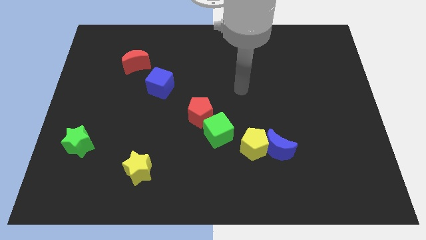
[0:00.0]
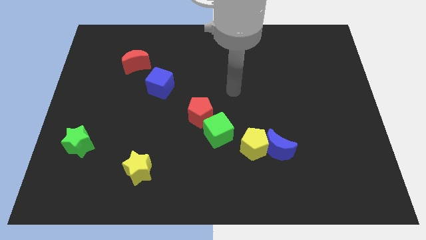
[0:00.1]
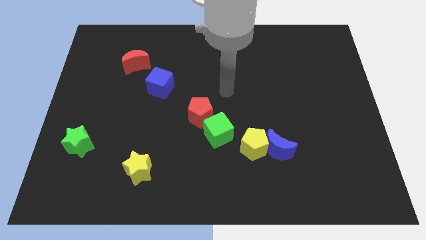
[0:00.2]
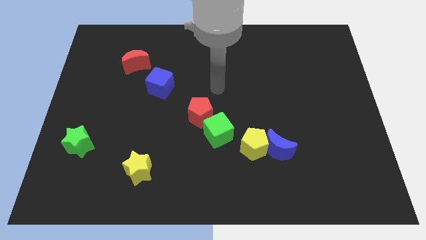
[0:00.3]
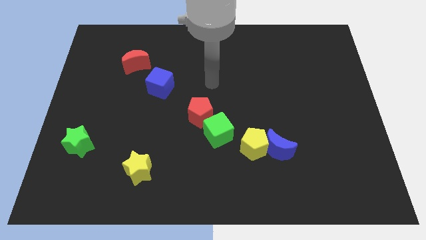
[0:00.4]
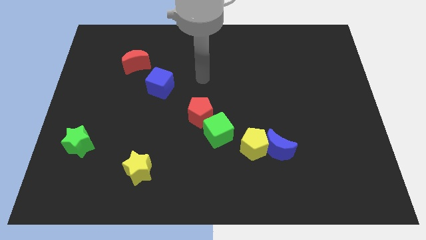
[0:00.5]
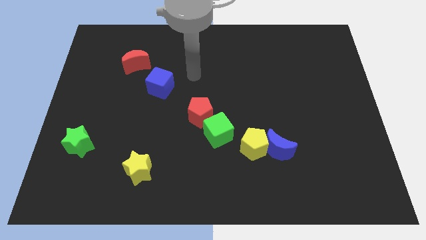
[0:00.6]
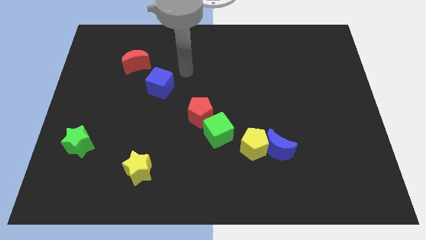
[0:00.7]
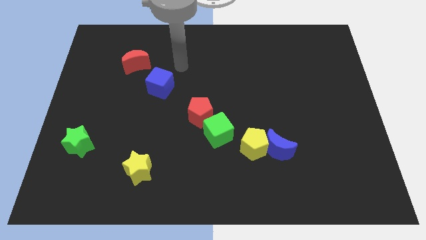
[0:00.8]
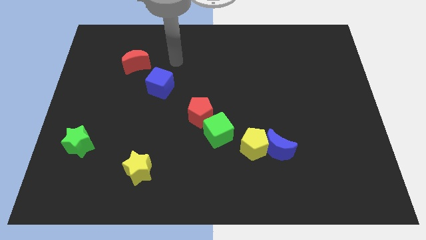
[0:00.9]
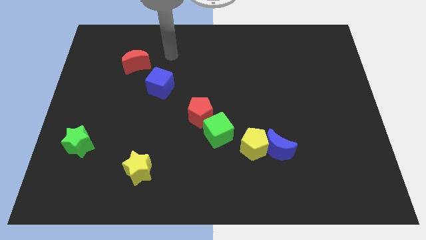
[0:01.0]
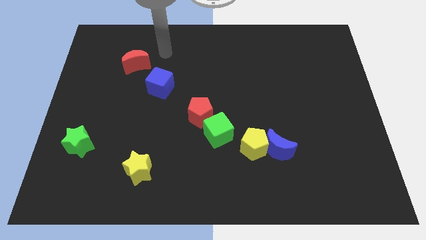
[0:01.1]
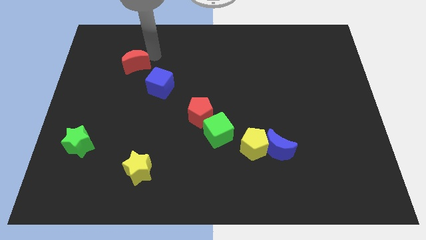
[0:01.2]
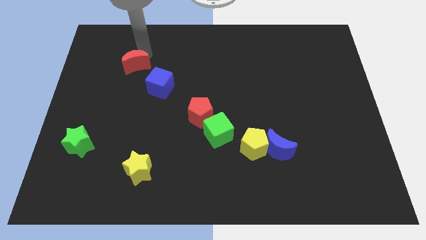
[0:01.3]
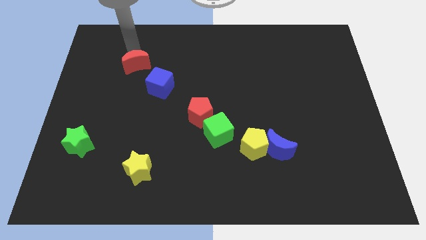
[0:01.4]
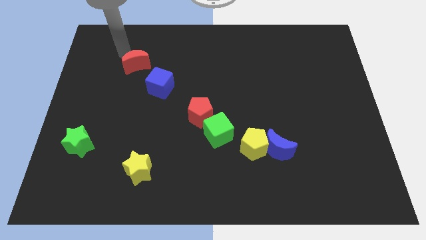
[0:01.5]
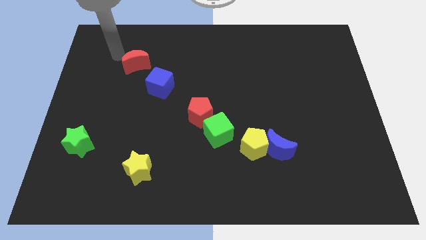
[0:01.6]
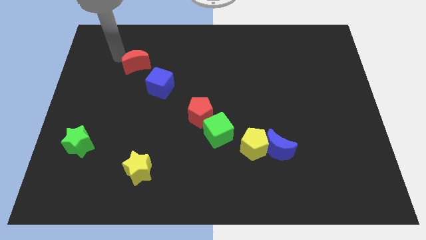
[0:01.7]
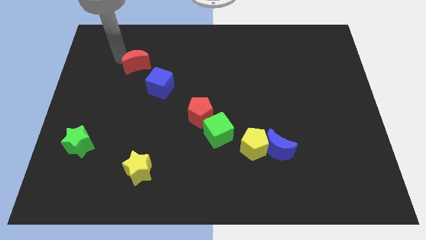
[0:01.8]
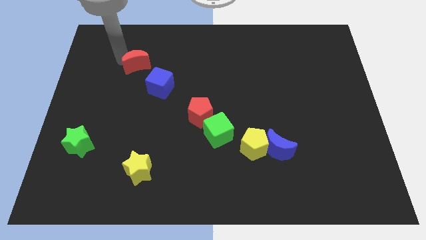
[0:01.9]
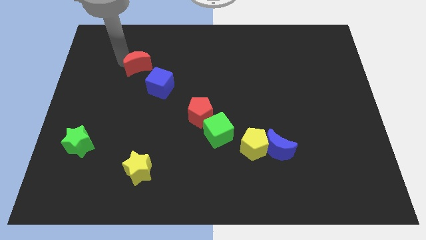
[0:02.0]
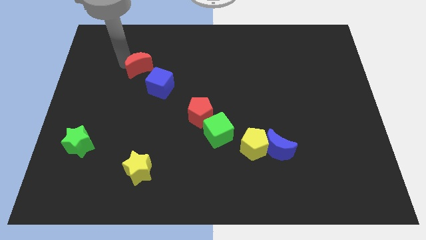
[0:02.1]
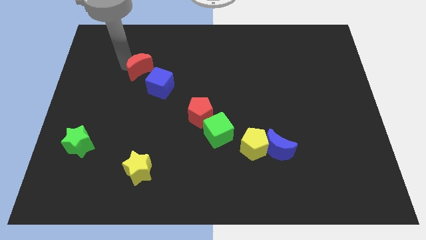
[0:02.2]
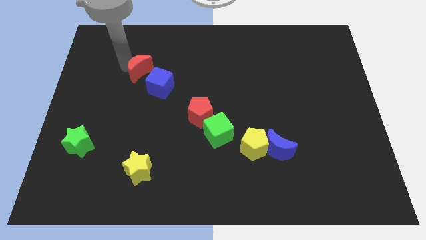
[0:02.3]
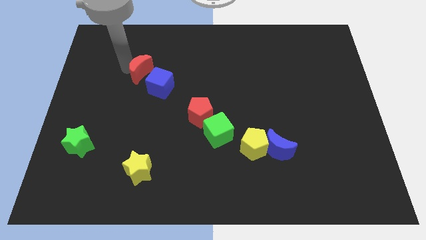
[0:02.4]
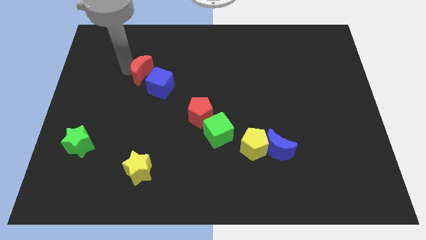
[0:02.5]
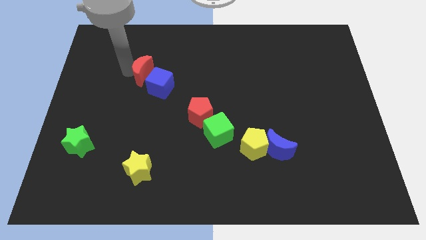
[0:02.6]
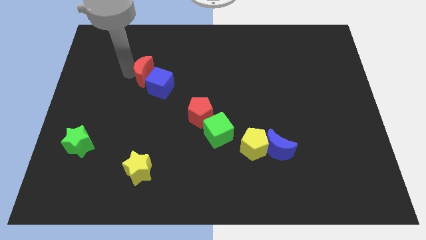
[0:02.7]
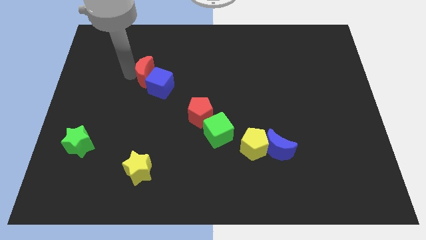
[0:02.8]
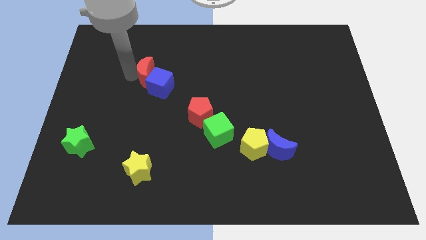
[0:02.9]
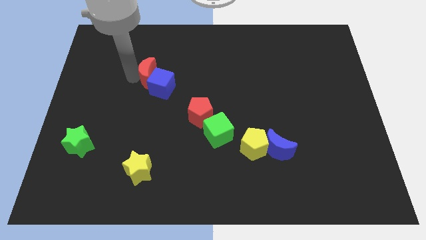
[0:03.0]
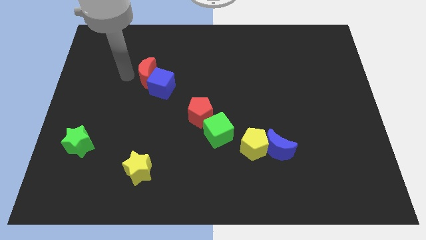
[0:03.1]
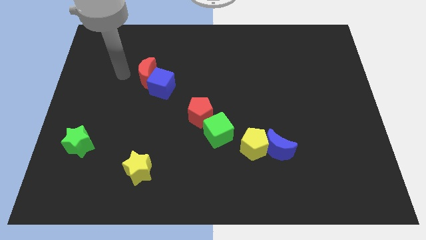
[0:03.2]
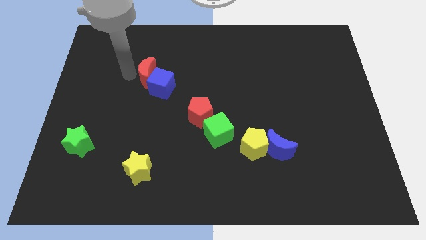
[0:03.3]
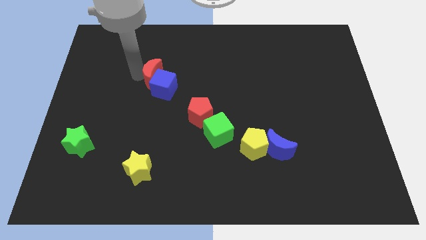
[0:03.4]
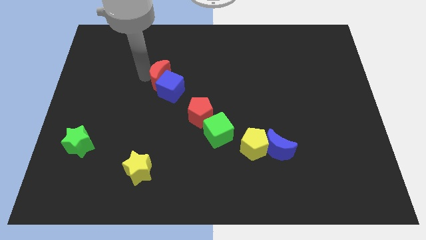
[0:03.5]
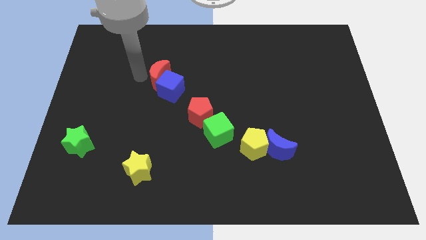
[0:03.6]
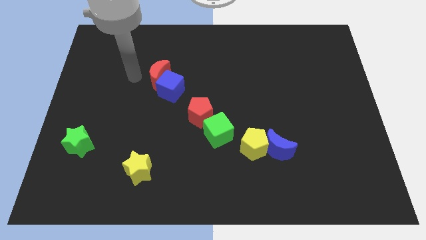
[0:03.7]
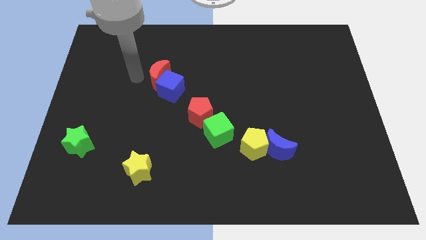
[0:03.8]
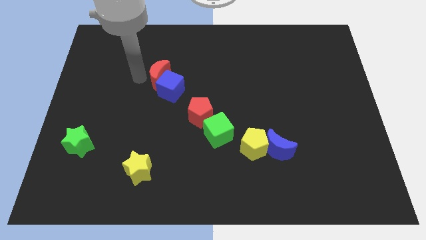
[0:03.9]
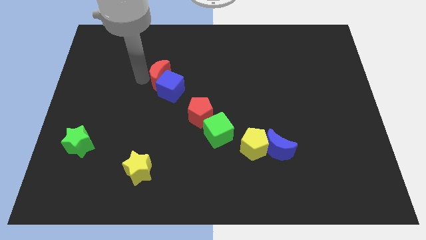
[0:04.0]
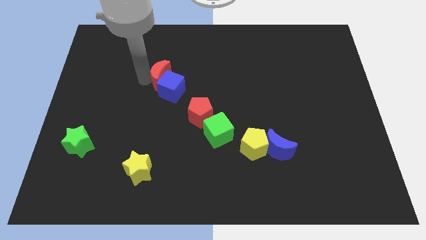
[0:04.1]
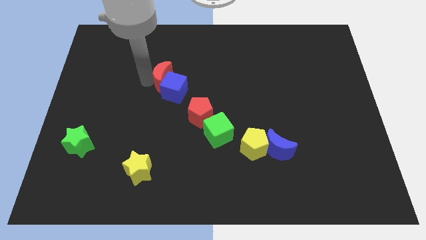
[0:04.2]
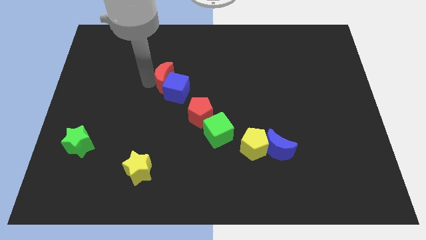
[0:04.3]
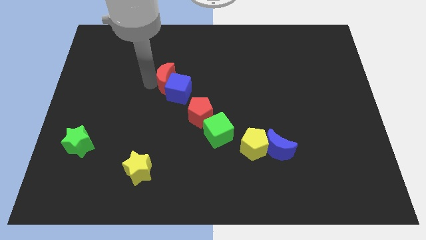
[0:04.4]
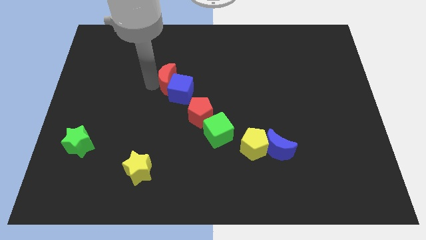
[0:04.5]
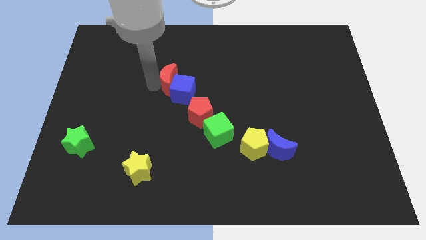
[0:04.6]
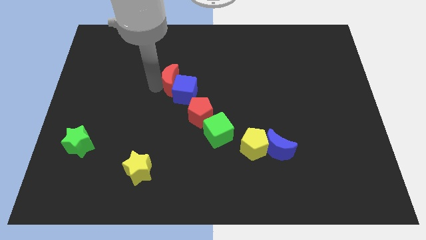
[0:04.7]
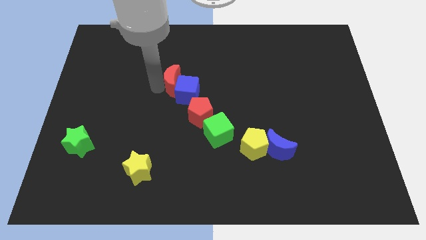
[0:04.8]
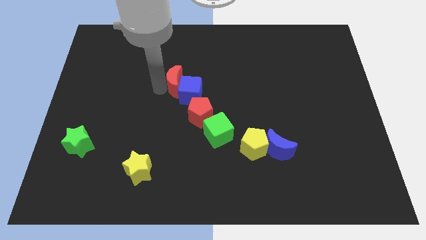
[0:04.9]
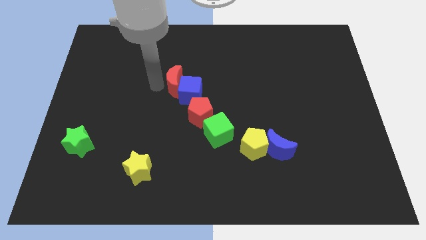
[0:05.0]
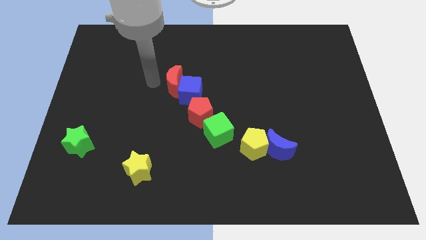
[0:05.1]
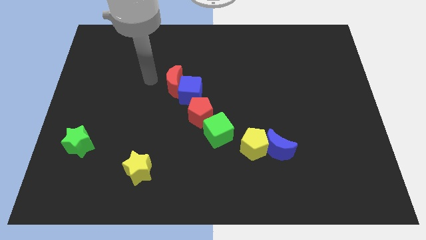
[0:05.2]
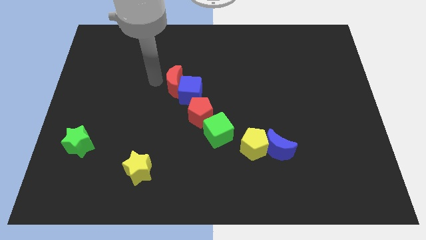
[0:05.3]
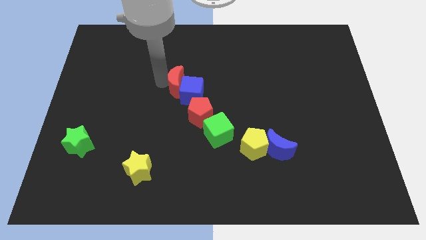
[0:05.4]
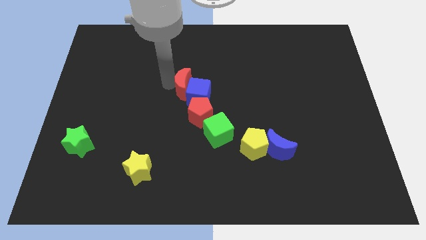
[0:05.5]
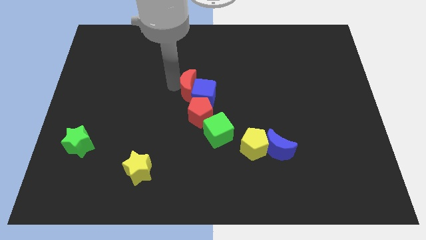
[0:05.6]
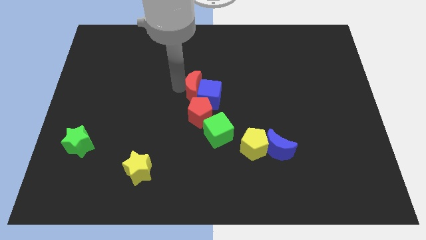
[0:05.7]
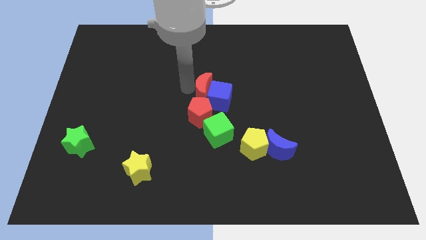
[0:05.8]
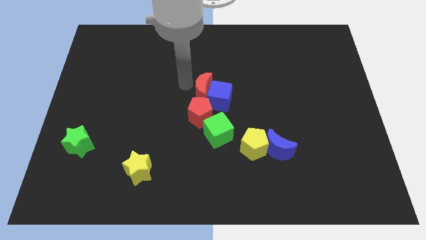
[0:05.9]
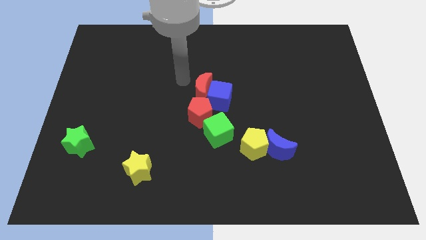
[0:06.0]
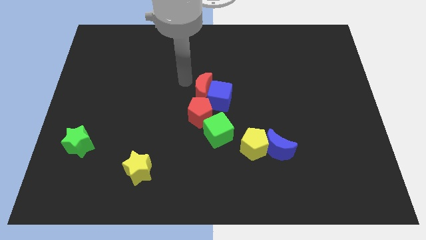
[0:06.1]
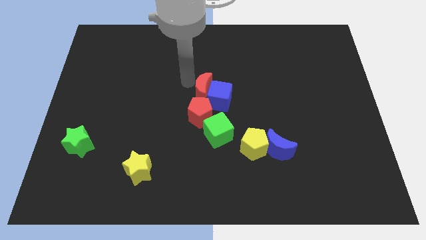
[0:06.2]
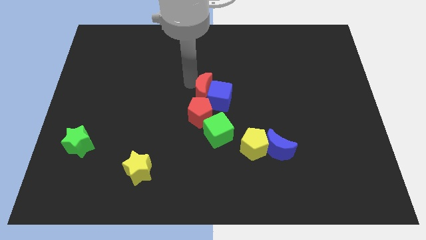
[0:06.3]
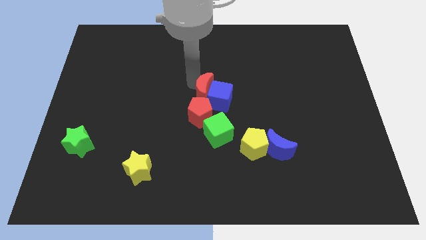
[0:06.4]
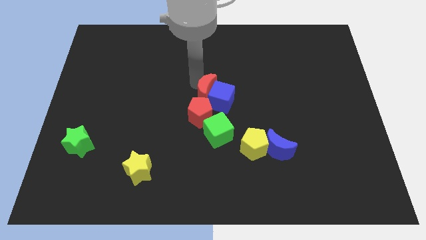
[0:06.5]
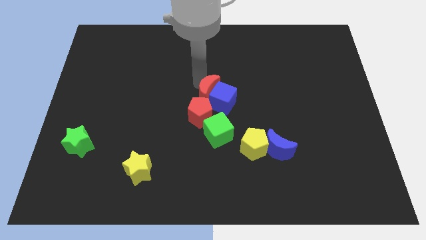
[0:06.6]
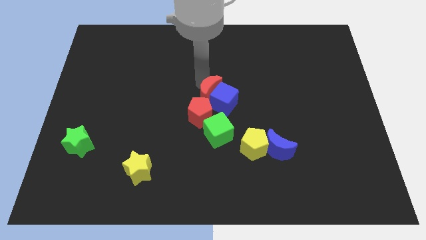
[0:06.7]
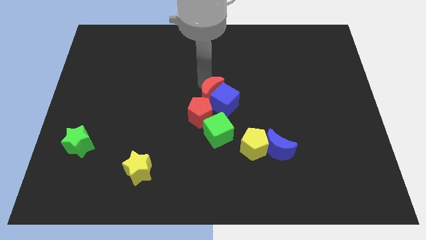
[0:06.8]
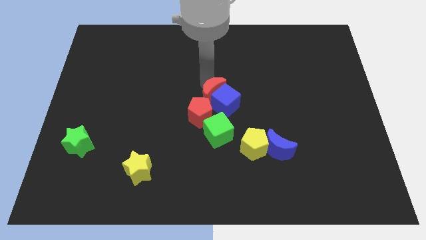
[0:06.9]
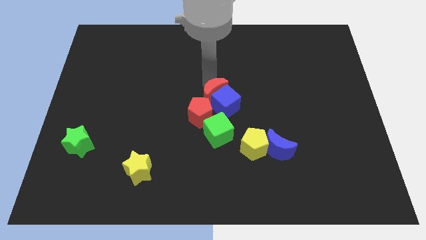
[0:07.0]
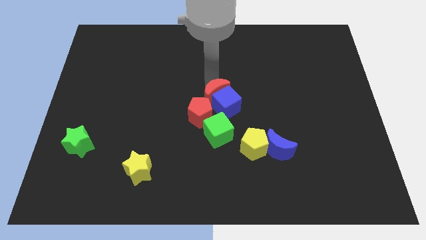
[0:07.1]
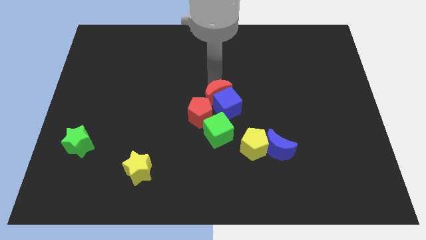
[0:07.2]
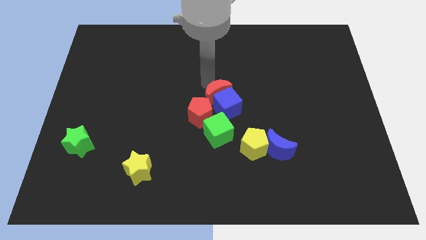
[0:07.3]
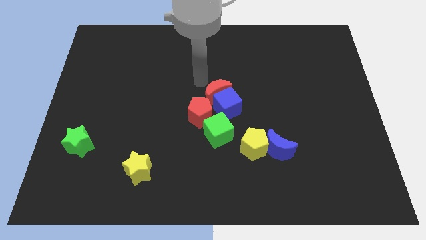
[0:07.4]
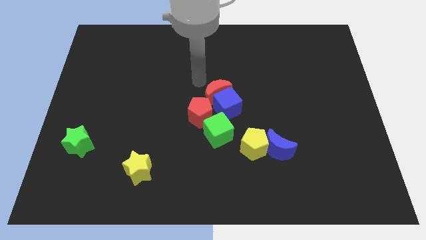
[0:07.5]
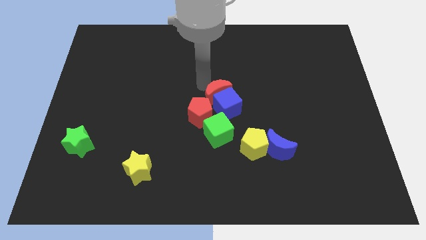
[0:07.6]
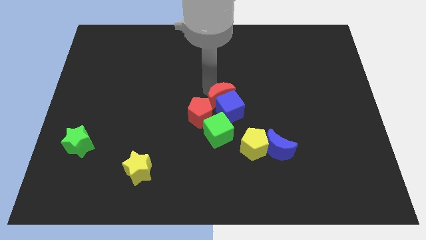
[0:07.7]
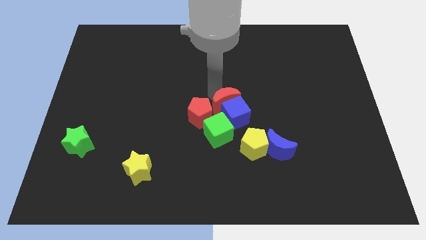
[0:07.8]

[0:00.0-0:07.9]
move the red moon diagonally up and to the right of the green cube

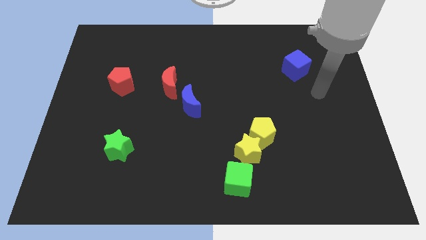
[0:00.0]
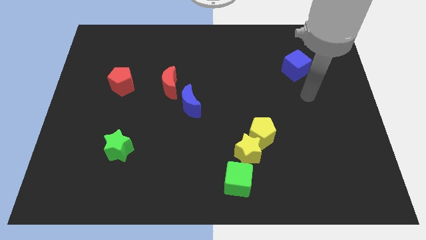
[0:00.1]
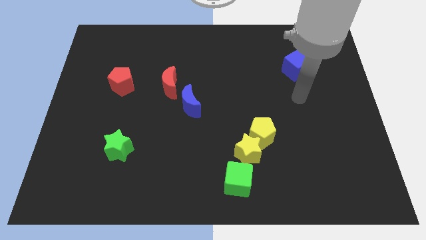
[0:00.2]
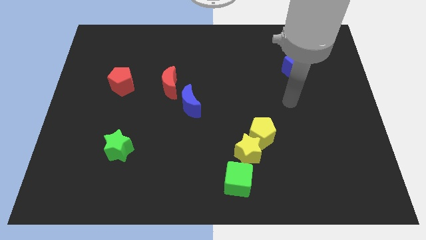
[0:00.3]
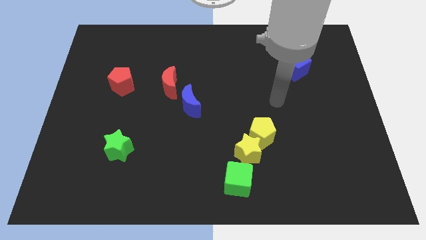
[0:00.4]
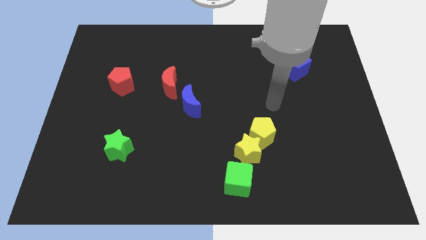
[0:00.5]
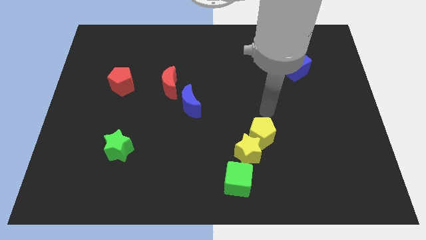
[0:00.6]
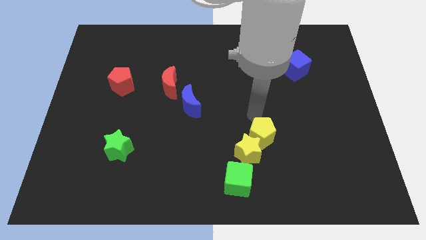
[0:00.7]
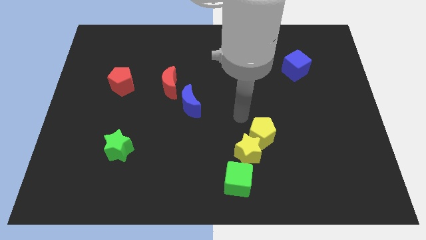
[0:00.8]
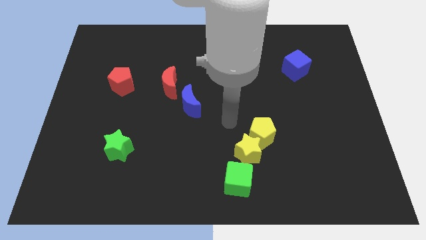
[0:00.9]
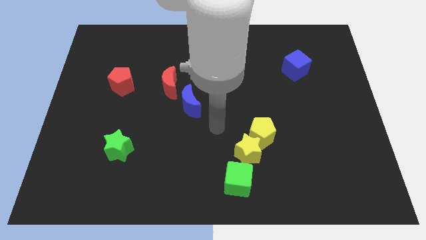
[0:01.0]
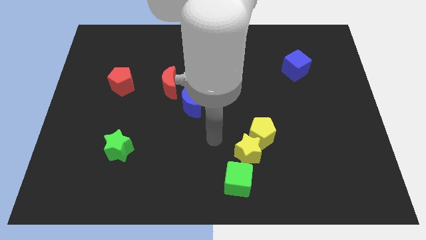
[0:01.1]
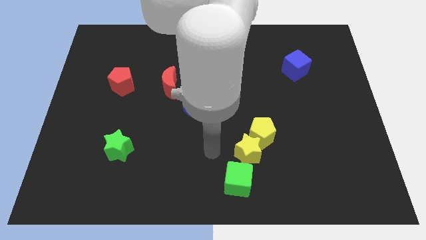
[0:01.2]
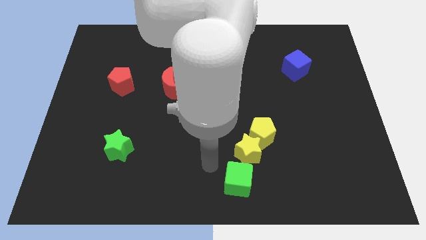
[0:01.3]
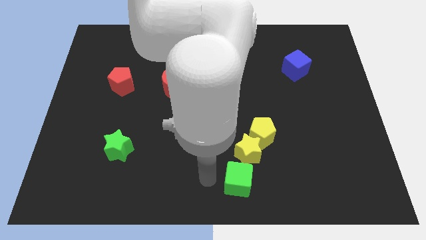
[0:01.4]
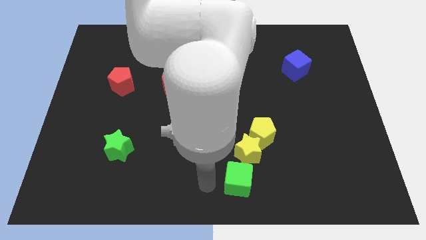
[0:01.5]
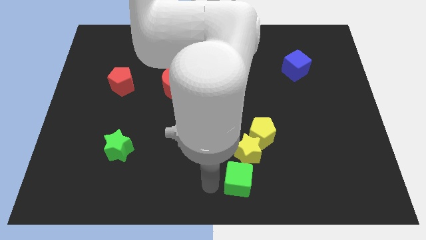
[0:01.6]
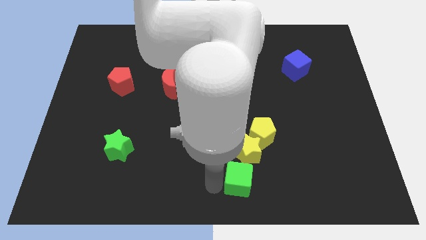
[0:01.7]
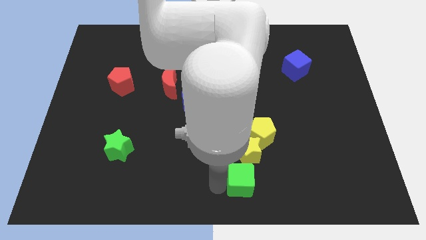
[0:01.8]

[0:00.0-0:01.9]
put the green cube to the bottom side of the yellow pentagon
